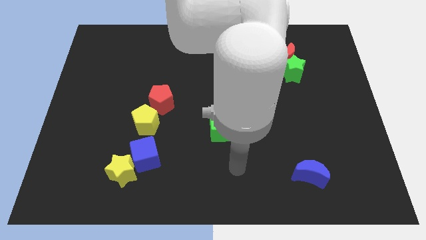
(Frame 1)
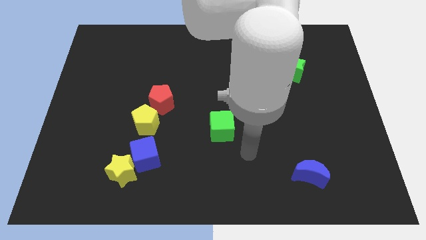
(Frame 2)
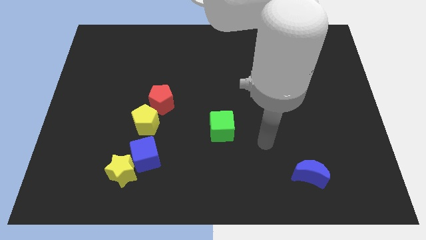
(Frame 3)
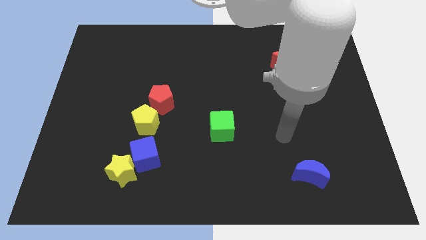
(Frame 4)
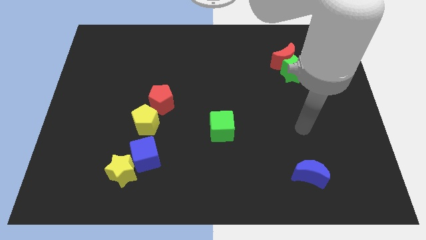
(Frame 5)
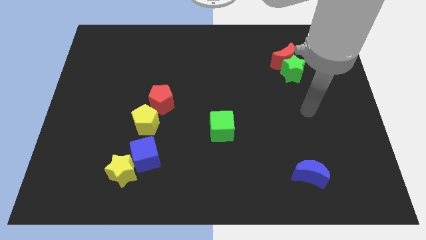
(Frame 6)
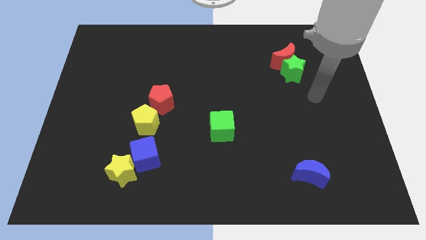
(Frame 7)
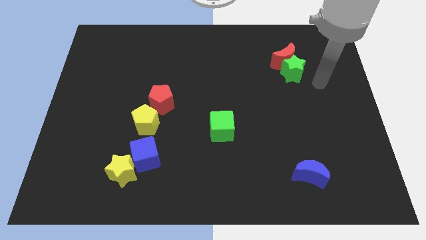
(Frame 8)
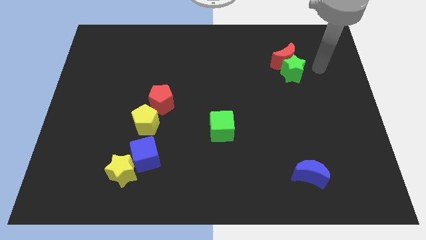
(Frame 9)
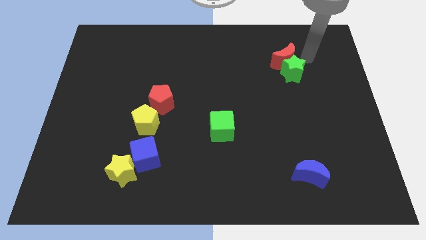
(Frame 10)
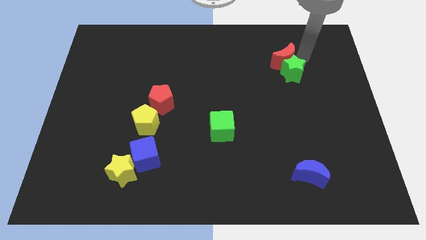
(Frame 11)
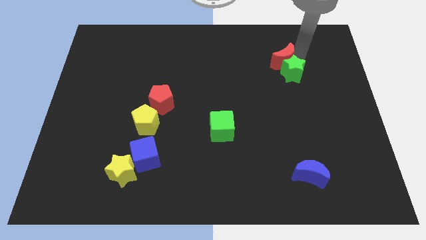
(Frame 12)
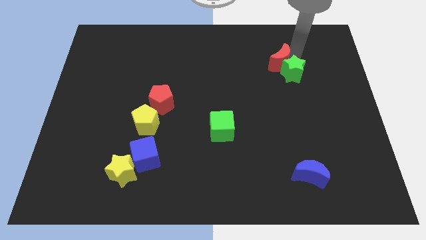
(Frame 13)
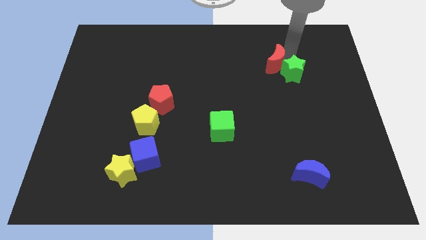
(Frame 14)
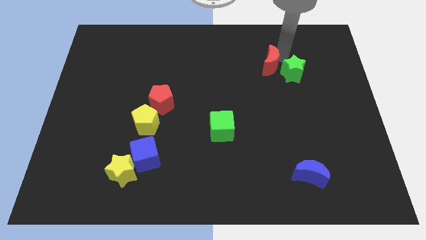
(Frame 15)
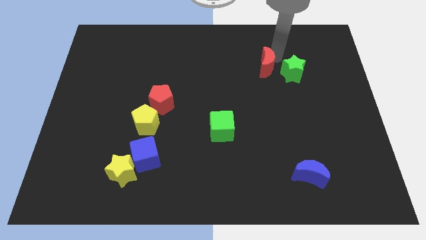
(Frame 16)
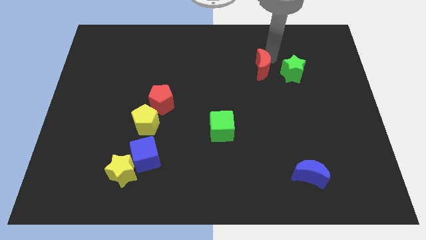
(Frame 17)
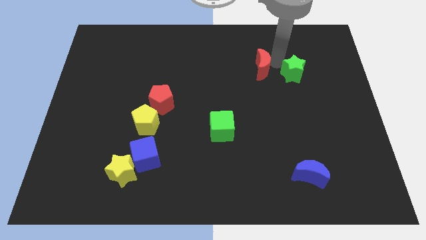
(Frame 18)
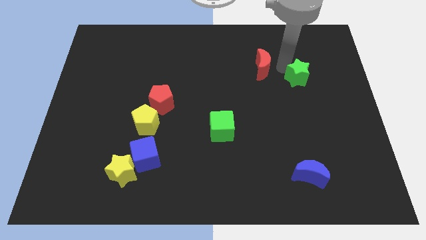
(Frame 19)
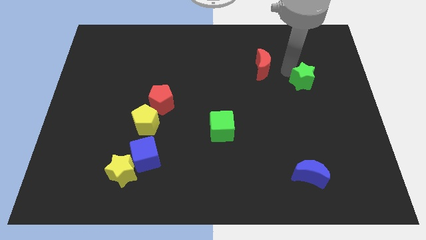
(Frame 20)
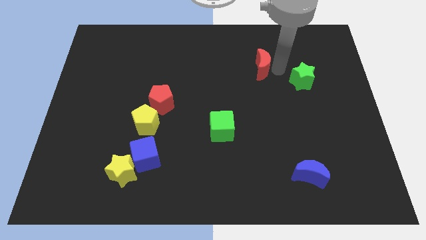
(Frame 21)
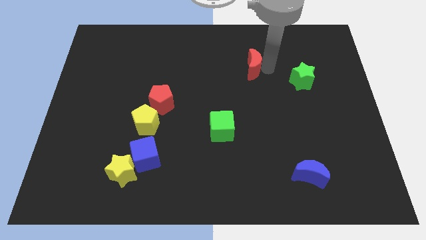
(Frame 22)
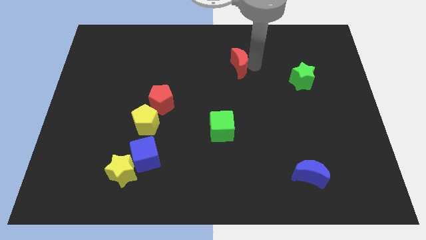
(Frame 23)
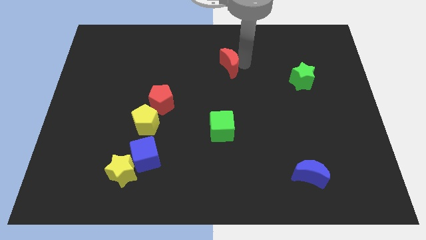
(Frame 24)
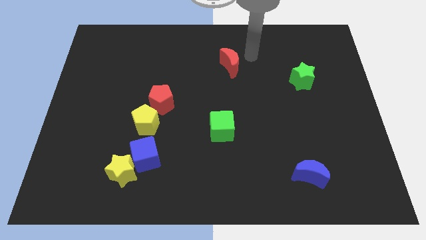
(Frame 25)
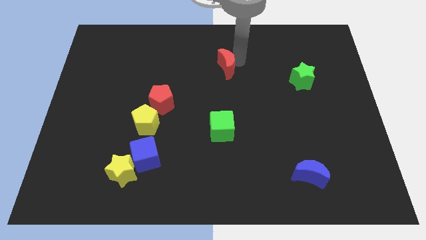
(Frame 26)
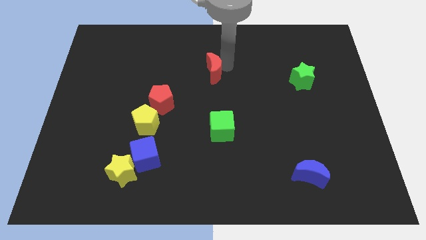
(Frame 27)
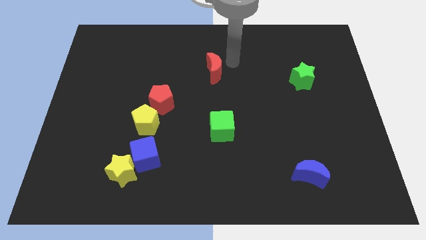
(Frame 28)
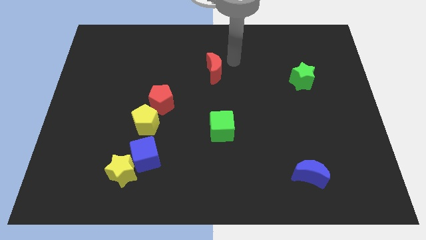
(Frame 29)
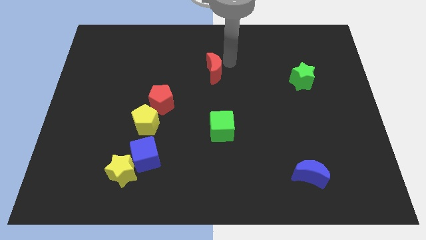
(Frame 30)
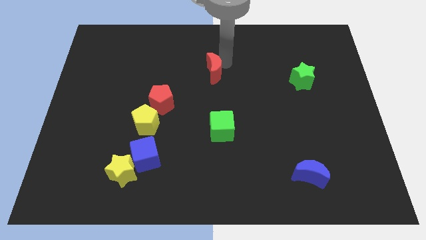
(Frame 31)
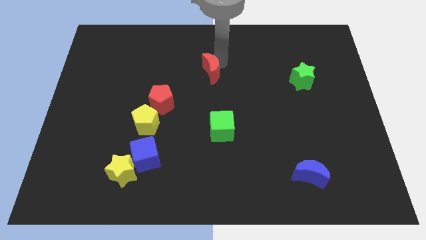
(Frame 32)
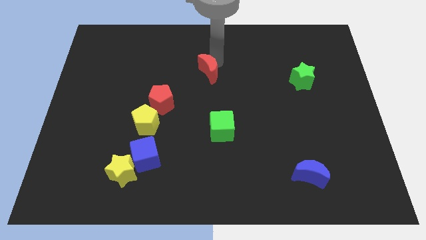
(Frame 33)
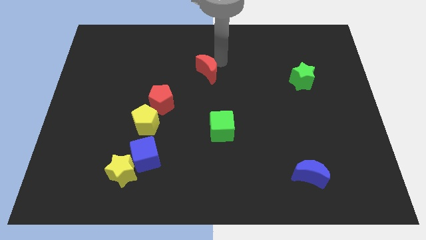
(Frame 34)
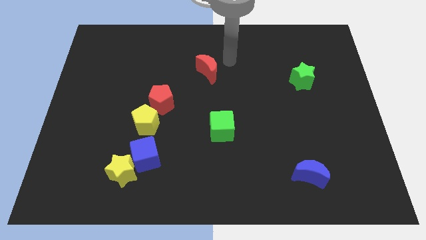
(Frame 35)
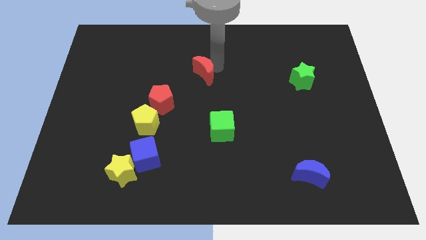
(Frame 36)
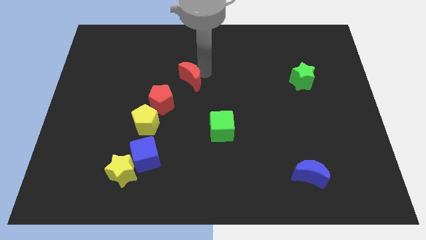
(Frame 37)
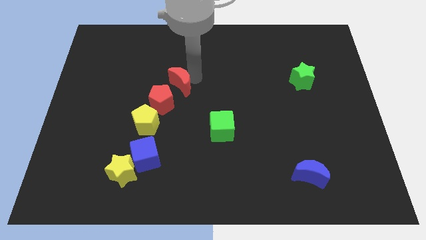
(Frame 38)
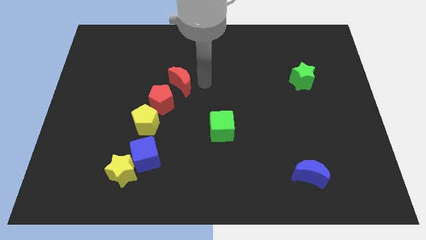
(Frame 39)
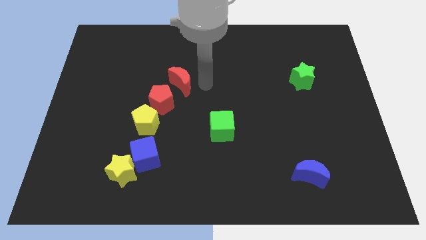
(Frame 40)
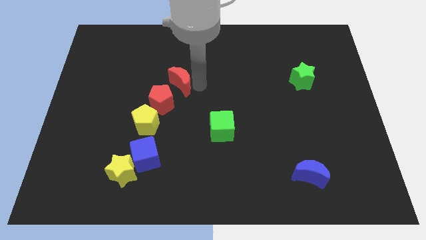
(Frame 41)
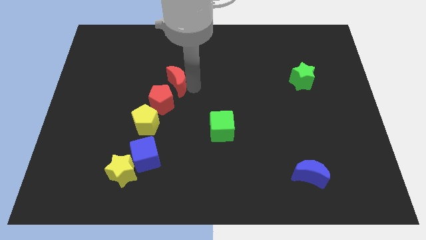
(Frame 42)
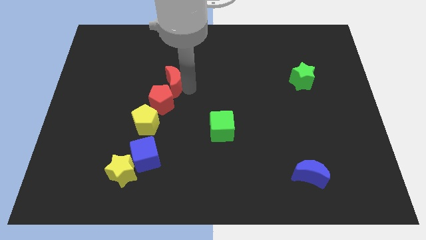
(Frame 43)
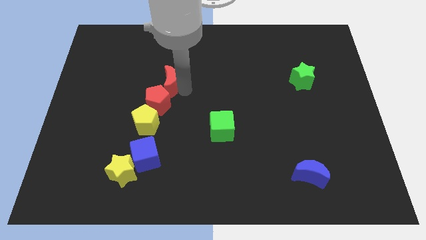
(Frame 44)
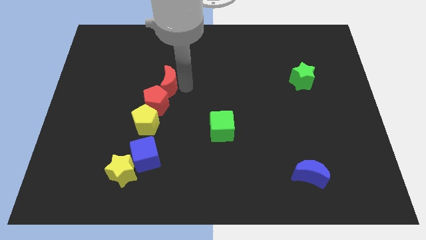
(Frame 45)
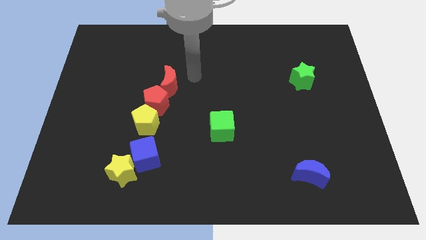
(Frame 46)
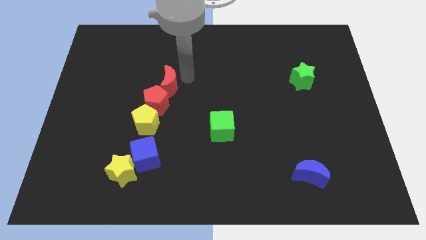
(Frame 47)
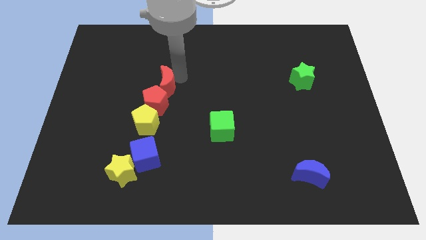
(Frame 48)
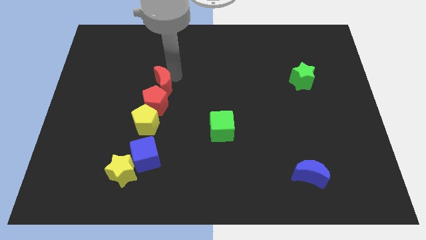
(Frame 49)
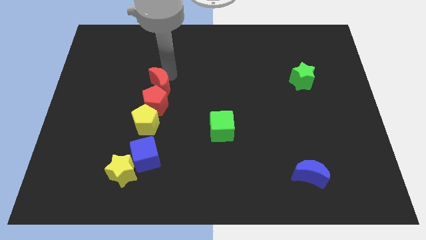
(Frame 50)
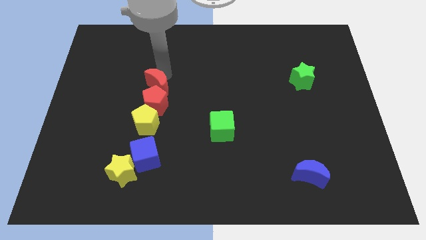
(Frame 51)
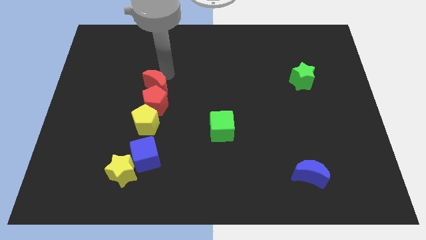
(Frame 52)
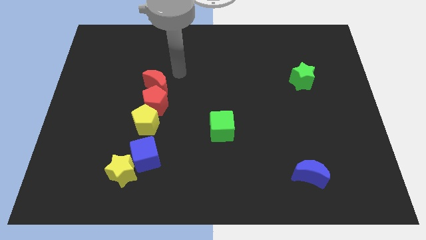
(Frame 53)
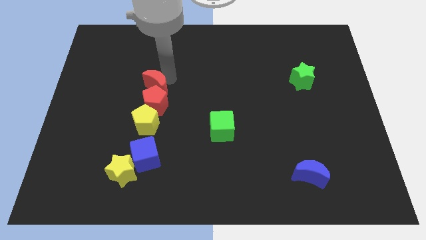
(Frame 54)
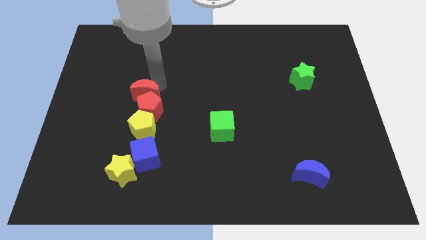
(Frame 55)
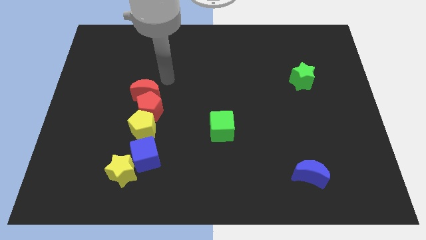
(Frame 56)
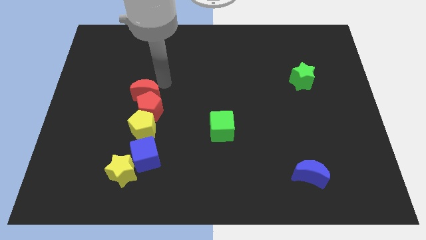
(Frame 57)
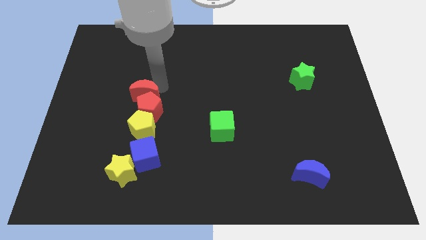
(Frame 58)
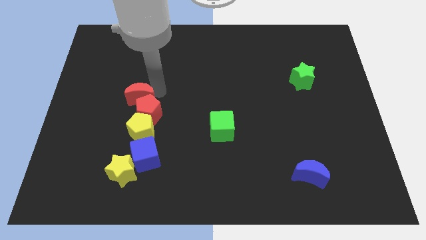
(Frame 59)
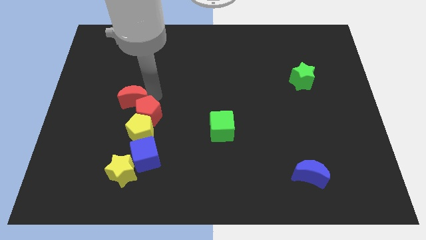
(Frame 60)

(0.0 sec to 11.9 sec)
move the red moon diagonally up and to the left of the yellow pentagon

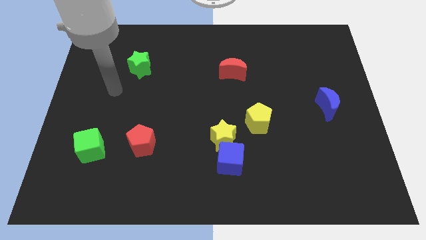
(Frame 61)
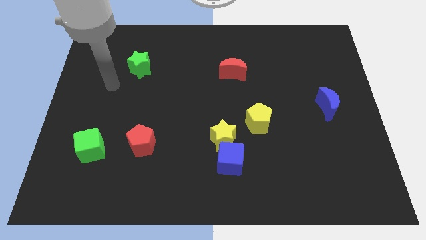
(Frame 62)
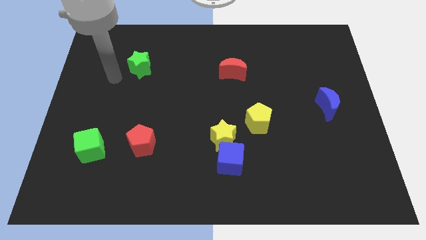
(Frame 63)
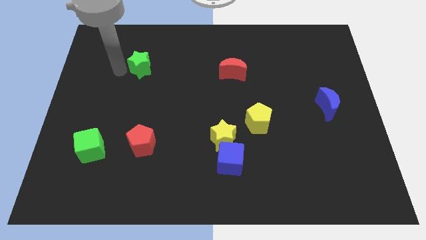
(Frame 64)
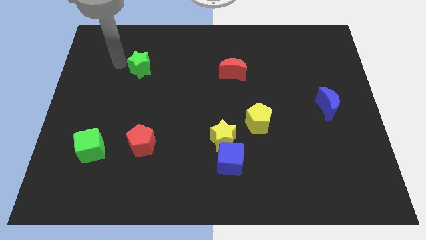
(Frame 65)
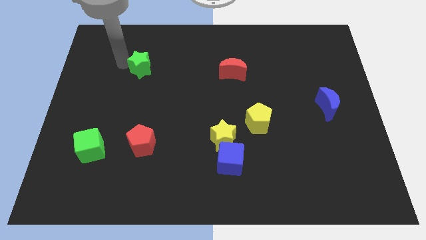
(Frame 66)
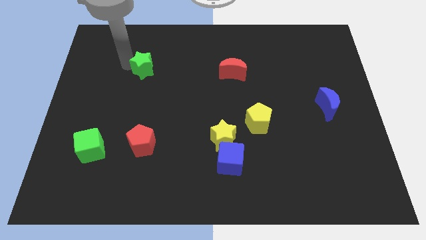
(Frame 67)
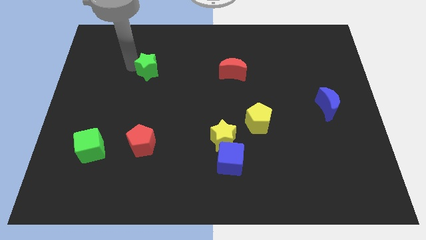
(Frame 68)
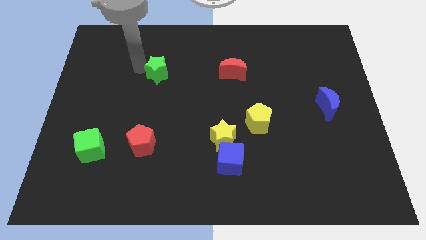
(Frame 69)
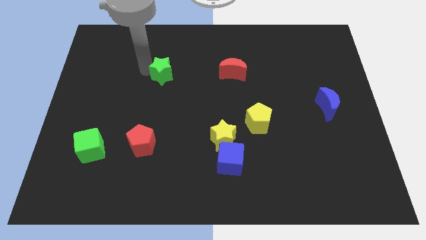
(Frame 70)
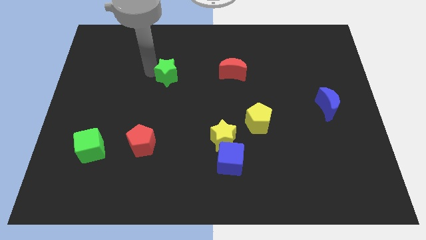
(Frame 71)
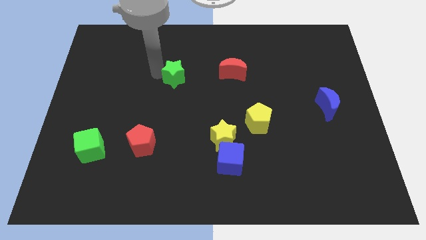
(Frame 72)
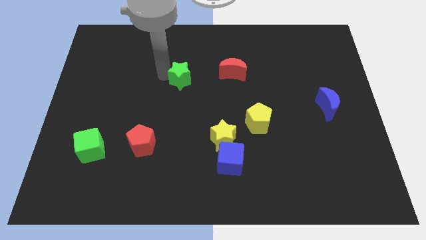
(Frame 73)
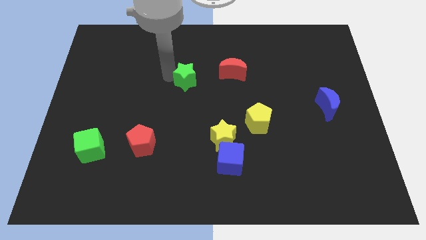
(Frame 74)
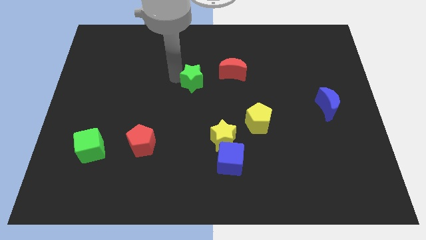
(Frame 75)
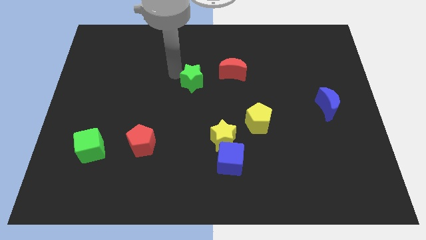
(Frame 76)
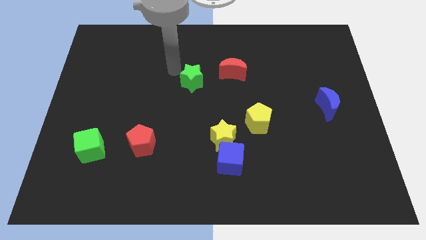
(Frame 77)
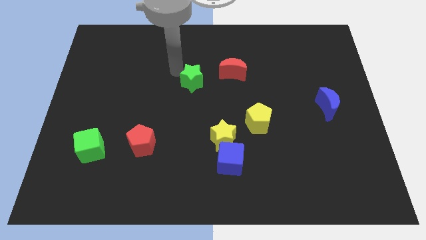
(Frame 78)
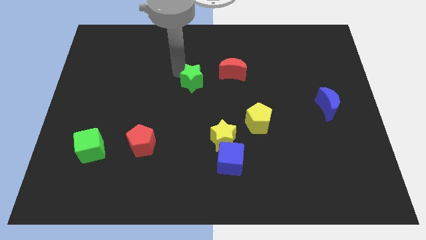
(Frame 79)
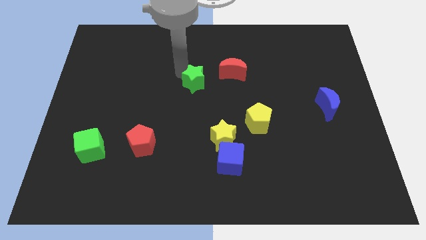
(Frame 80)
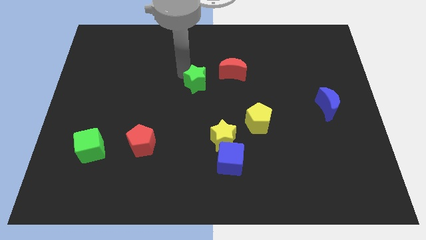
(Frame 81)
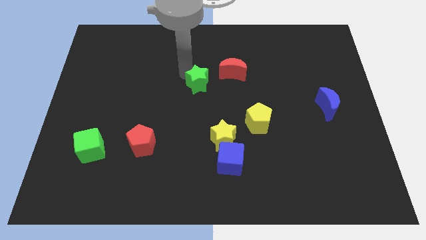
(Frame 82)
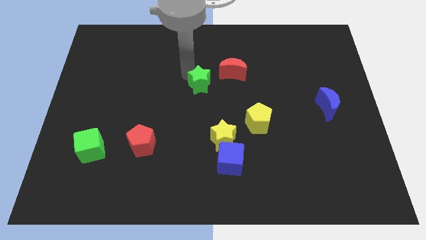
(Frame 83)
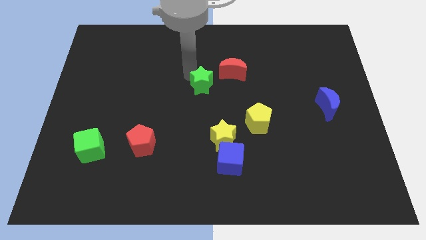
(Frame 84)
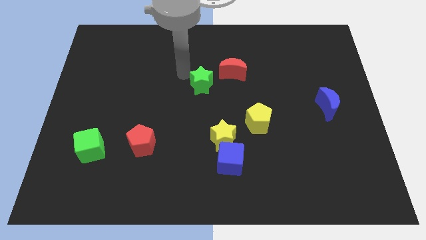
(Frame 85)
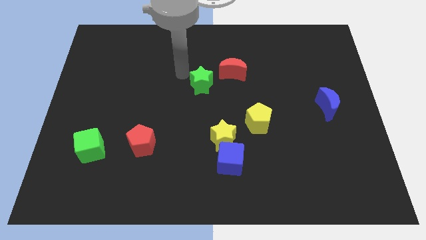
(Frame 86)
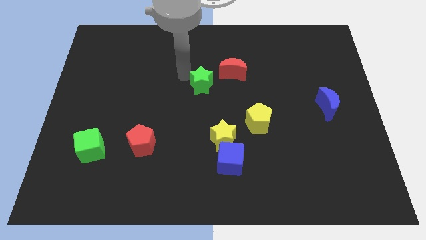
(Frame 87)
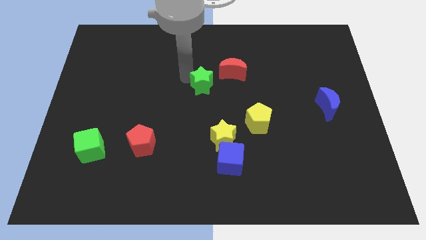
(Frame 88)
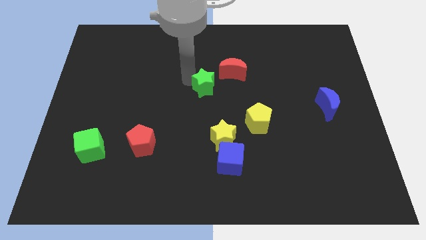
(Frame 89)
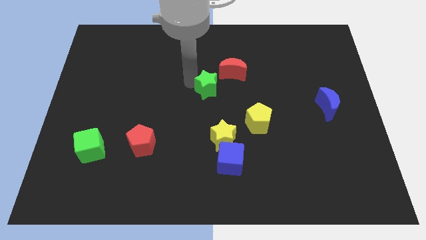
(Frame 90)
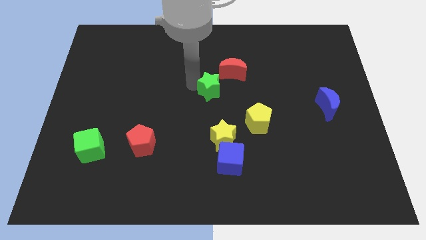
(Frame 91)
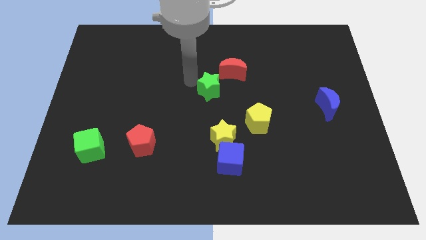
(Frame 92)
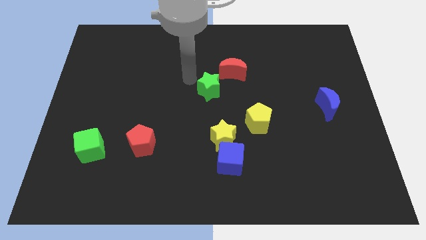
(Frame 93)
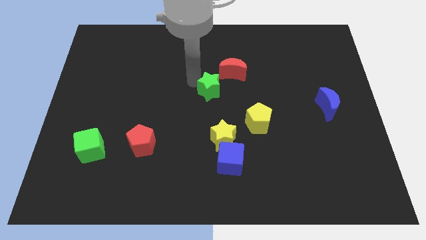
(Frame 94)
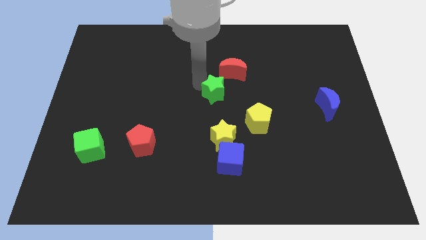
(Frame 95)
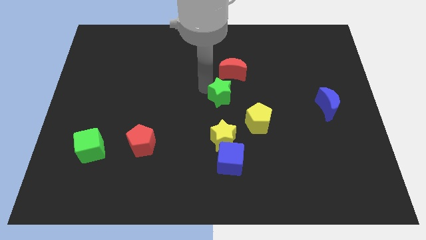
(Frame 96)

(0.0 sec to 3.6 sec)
put the green star diagonally up and to the left of the yellow pentagon
